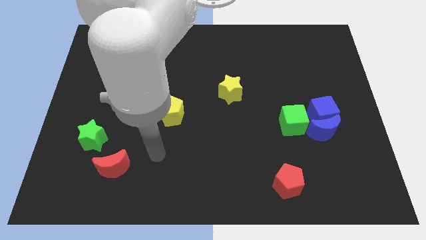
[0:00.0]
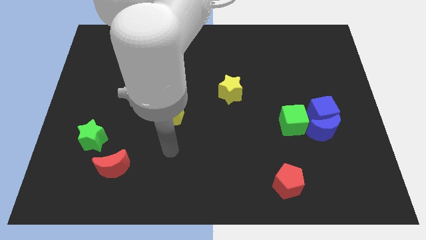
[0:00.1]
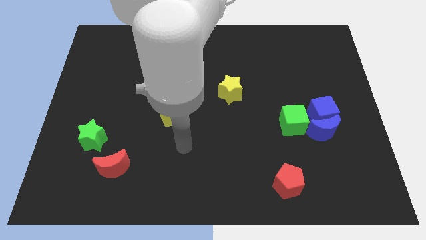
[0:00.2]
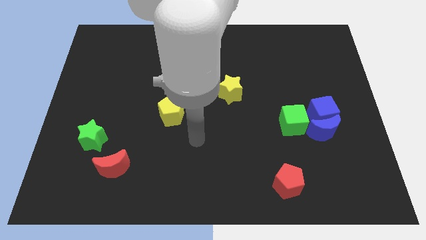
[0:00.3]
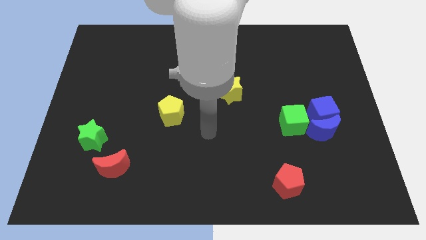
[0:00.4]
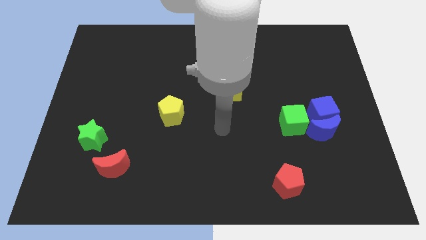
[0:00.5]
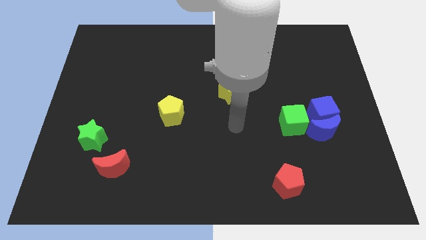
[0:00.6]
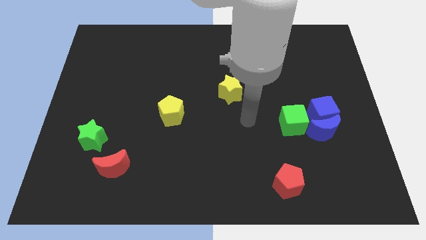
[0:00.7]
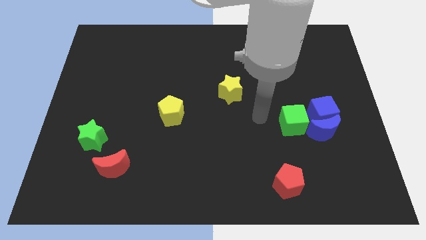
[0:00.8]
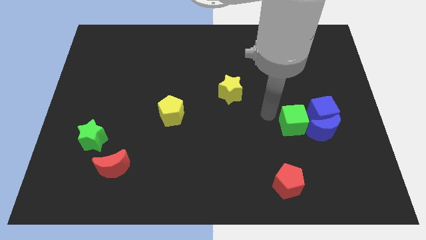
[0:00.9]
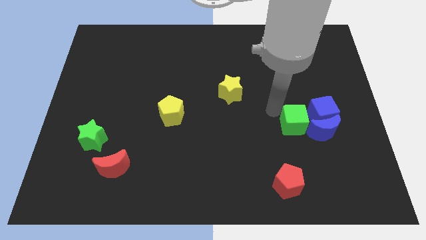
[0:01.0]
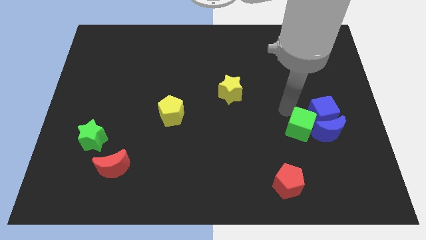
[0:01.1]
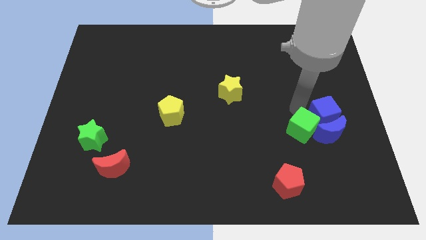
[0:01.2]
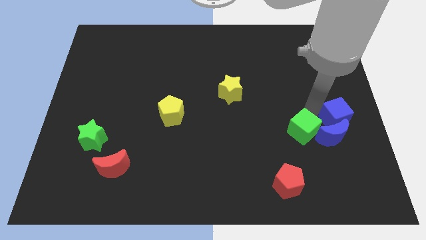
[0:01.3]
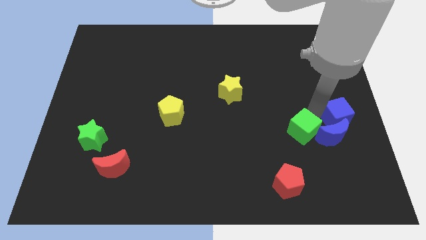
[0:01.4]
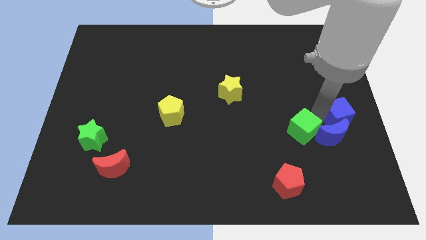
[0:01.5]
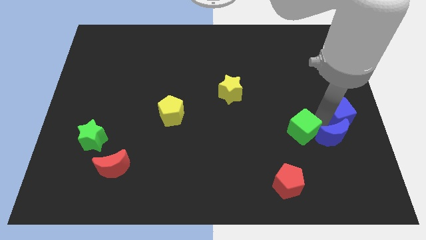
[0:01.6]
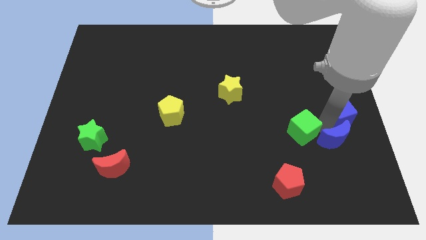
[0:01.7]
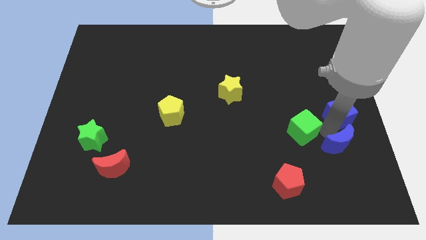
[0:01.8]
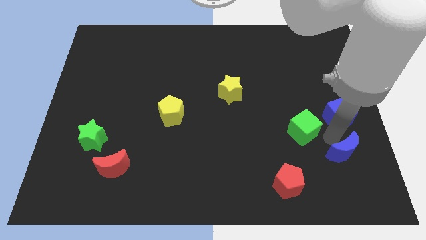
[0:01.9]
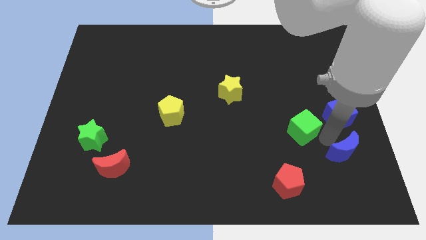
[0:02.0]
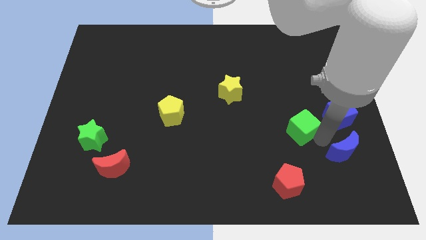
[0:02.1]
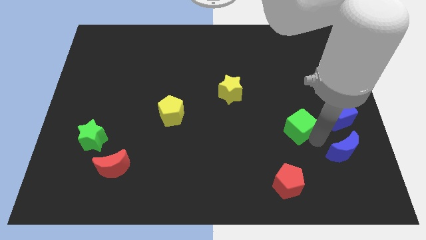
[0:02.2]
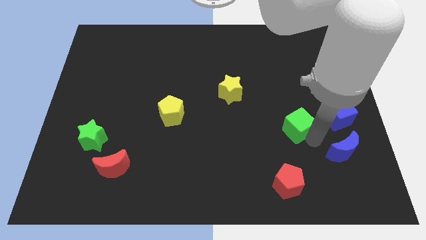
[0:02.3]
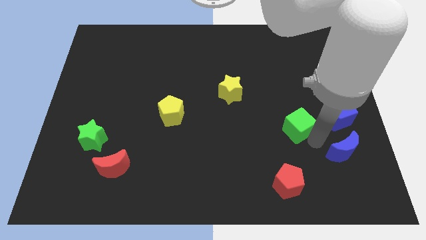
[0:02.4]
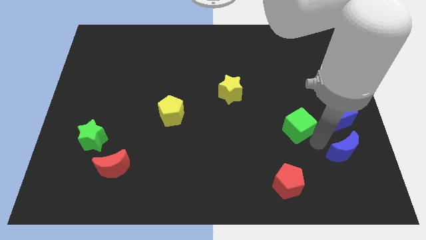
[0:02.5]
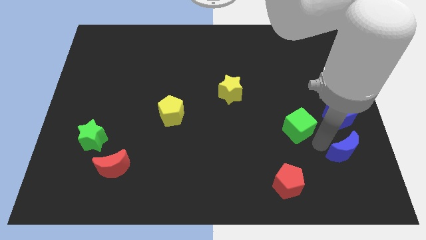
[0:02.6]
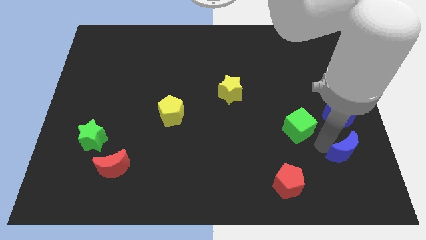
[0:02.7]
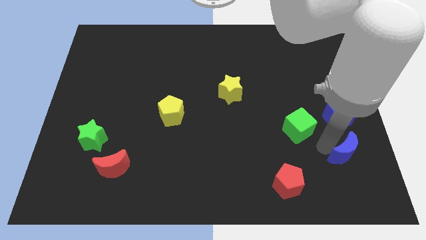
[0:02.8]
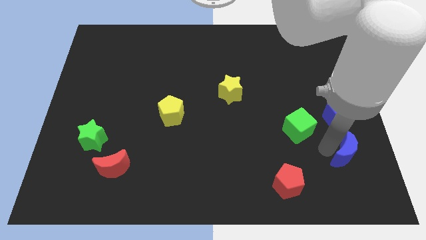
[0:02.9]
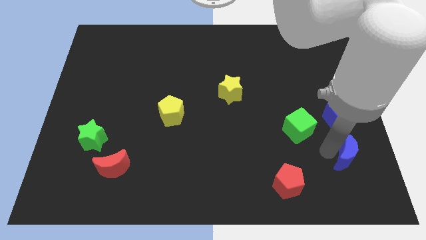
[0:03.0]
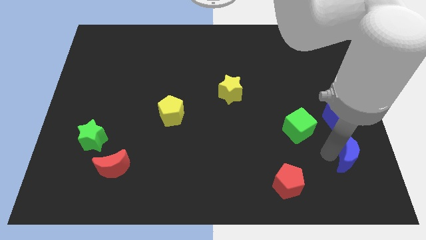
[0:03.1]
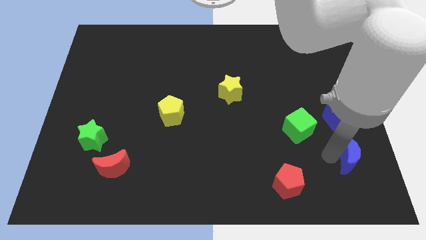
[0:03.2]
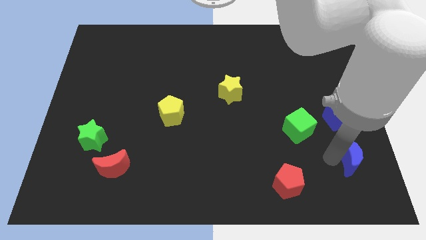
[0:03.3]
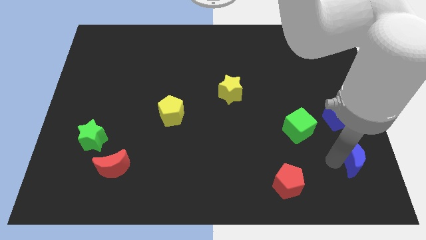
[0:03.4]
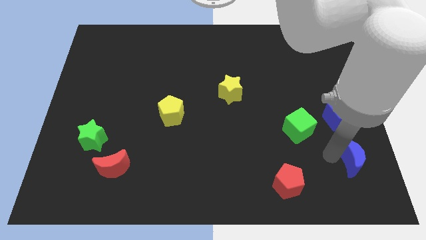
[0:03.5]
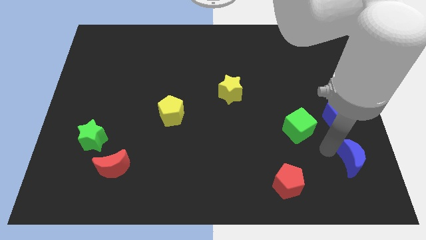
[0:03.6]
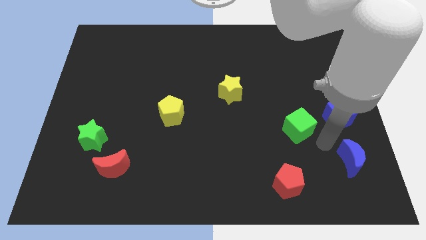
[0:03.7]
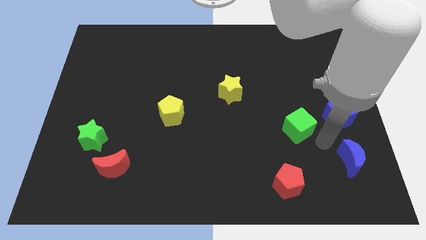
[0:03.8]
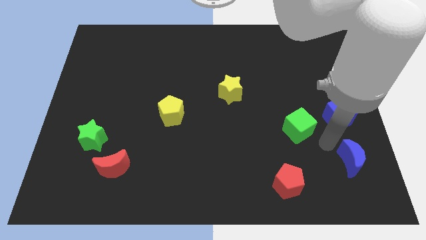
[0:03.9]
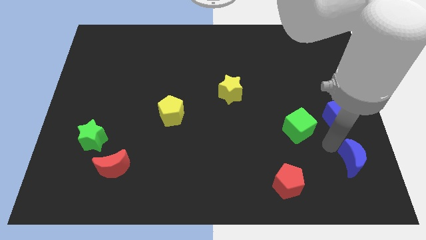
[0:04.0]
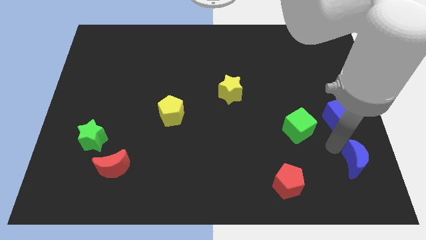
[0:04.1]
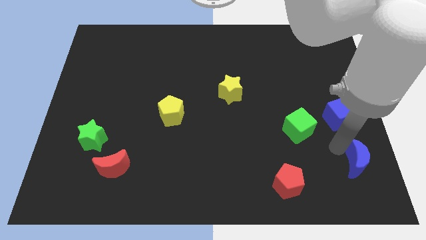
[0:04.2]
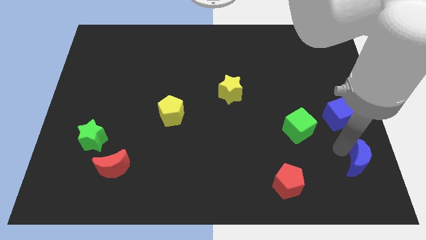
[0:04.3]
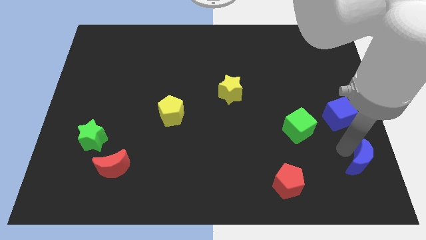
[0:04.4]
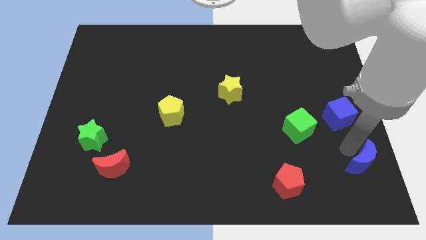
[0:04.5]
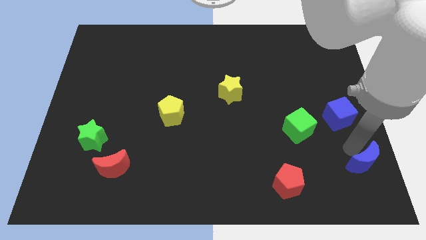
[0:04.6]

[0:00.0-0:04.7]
move the blue moon to the bottom right of the board

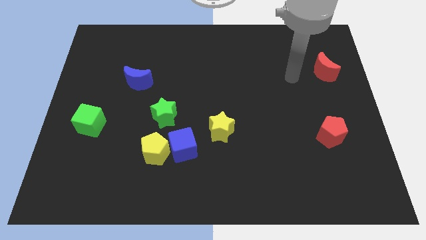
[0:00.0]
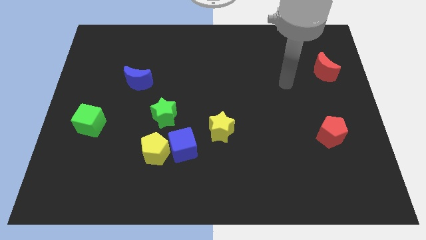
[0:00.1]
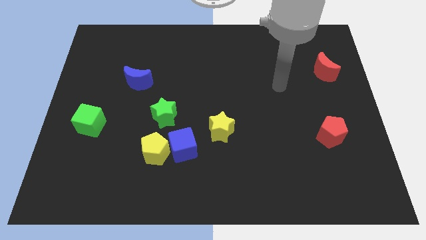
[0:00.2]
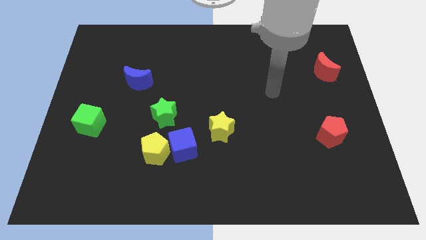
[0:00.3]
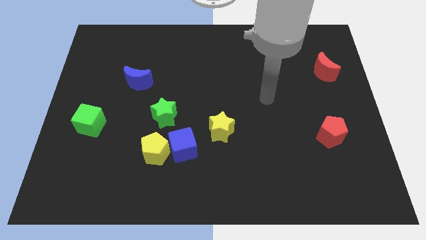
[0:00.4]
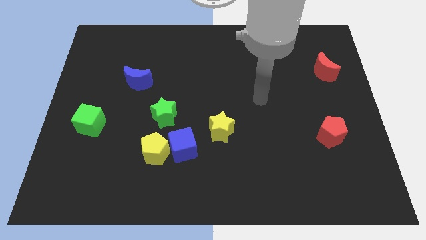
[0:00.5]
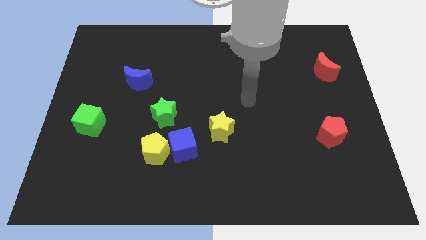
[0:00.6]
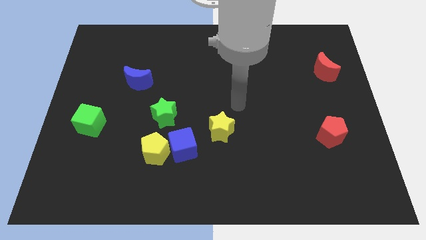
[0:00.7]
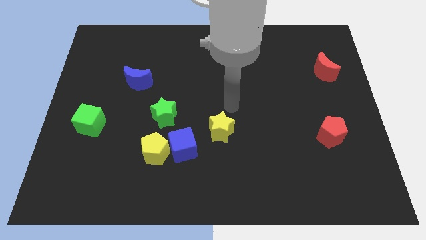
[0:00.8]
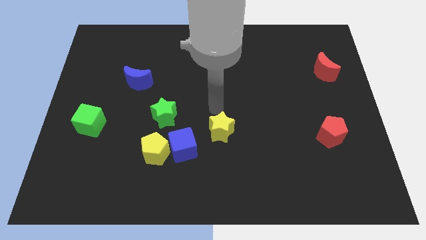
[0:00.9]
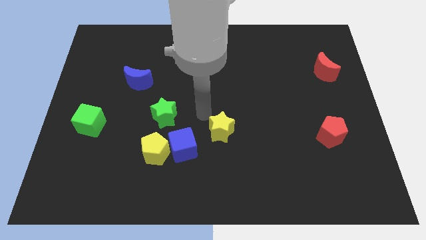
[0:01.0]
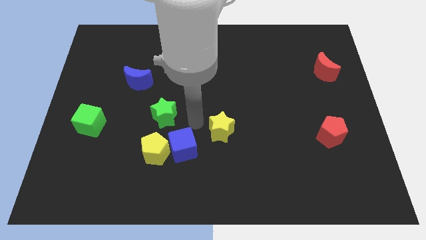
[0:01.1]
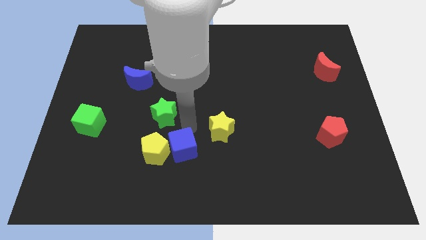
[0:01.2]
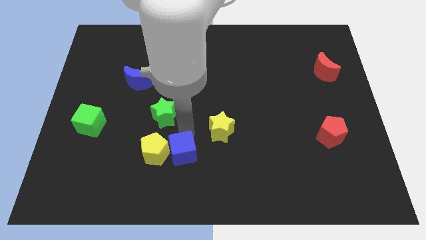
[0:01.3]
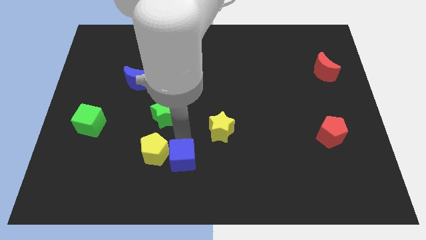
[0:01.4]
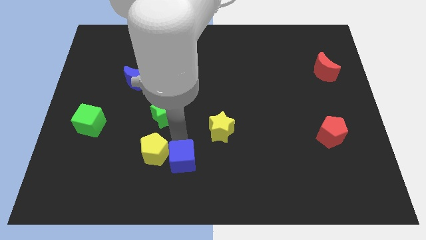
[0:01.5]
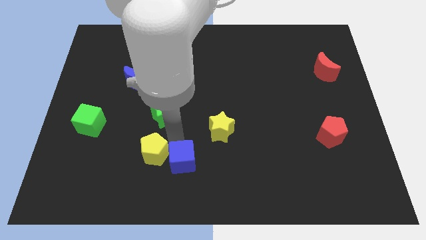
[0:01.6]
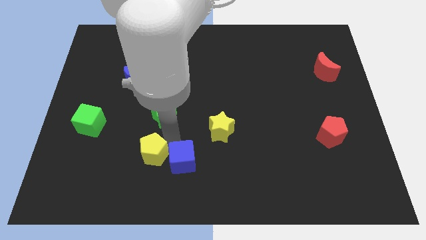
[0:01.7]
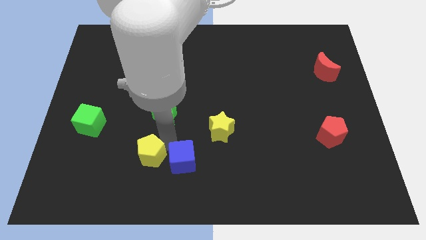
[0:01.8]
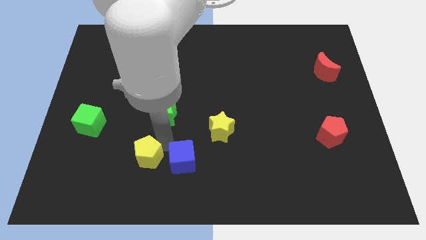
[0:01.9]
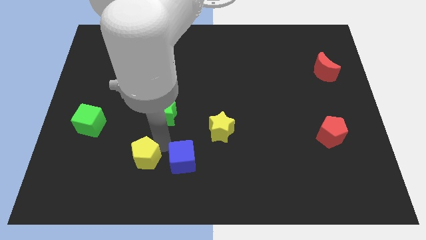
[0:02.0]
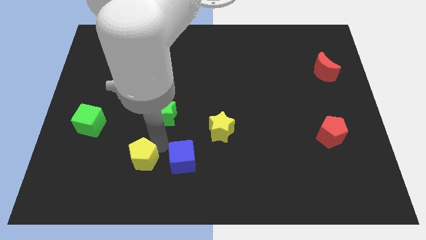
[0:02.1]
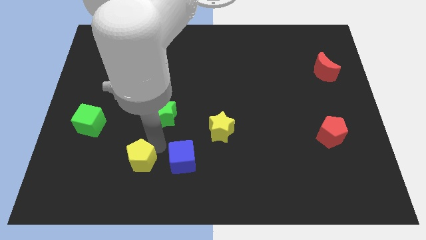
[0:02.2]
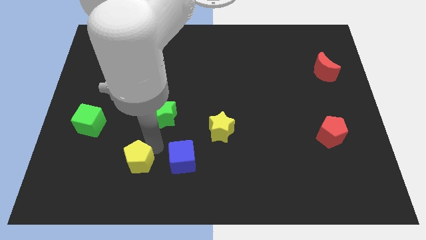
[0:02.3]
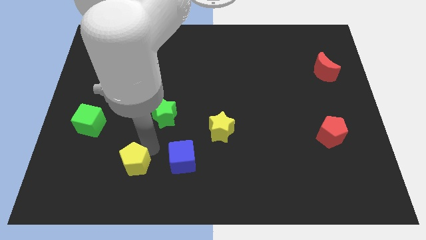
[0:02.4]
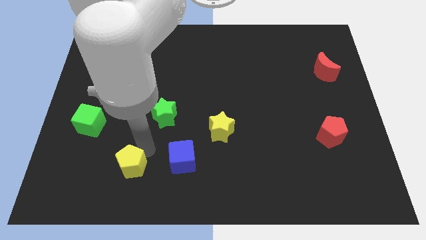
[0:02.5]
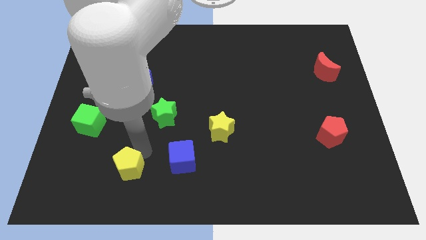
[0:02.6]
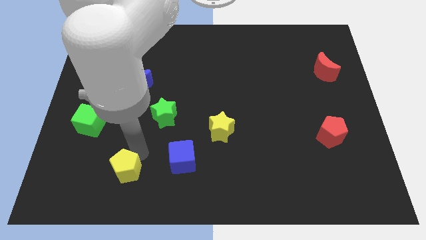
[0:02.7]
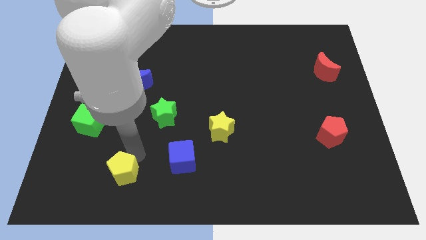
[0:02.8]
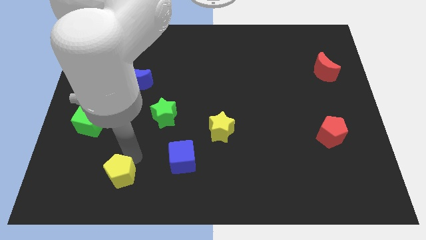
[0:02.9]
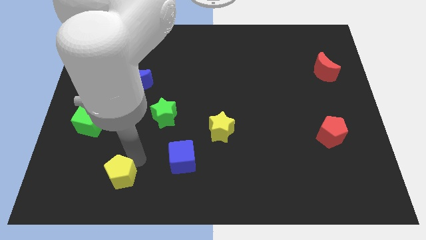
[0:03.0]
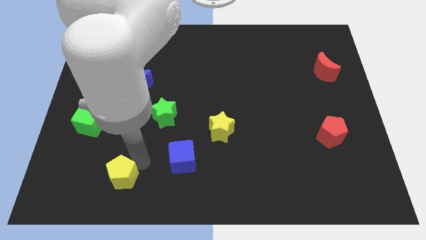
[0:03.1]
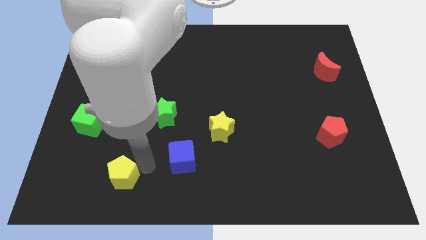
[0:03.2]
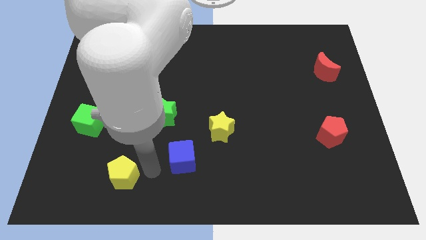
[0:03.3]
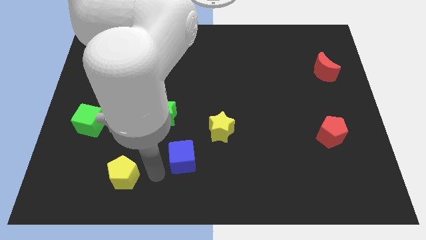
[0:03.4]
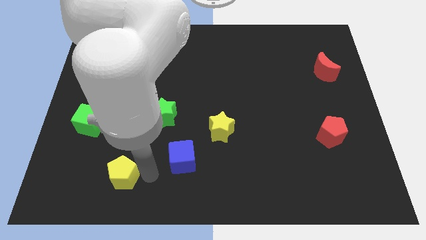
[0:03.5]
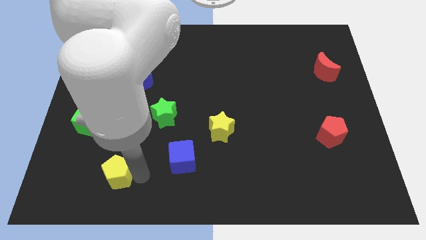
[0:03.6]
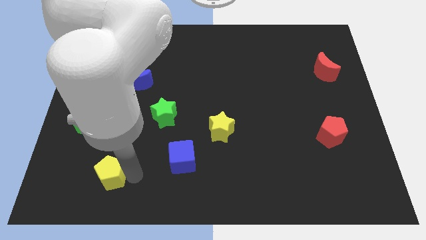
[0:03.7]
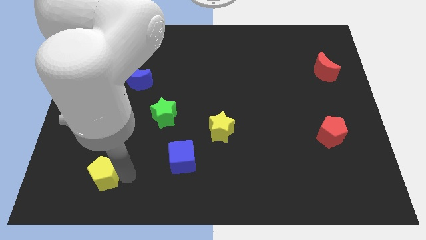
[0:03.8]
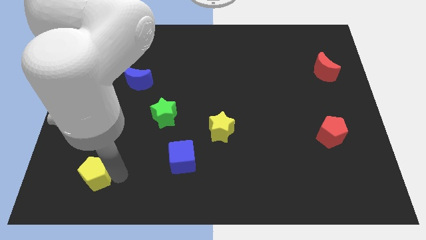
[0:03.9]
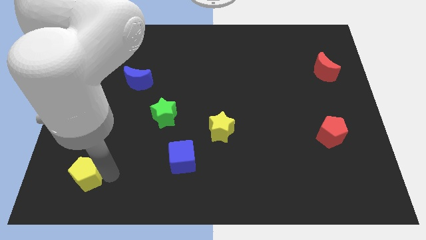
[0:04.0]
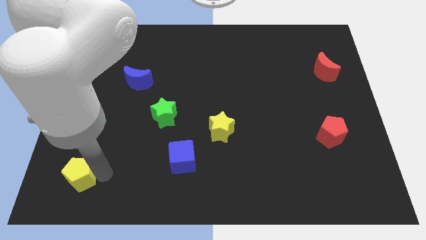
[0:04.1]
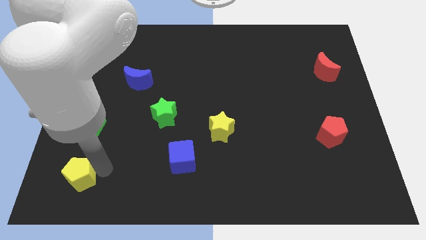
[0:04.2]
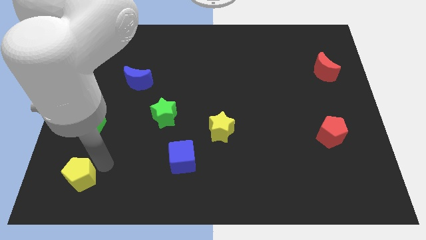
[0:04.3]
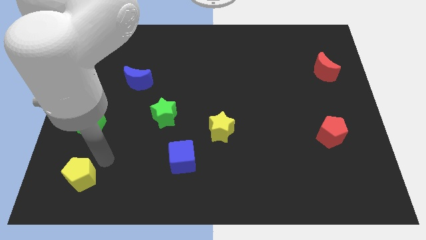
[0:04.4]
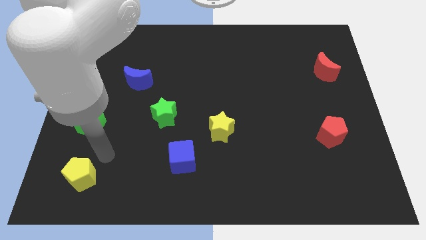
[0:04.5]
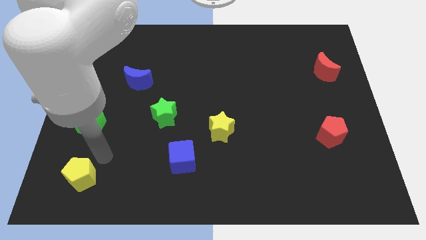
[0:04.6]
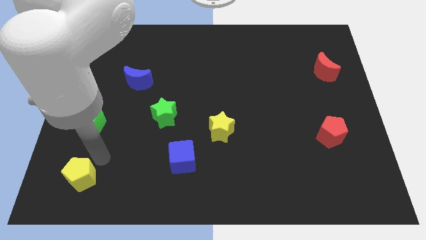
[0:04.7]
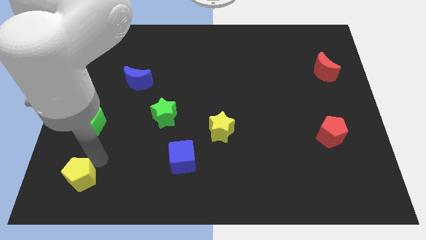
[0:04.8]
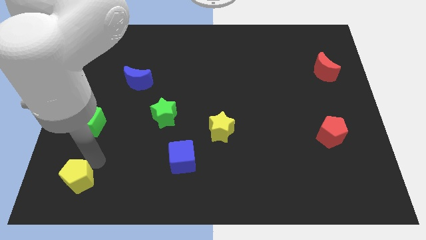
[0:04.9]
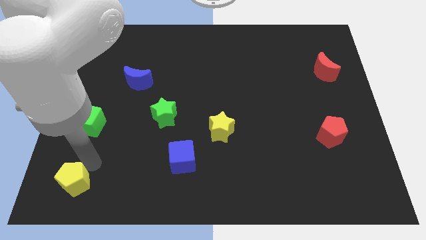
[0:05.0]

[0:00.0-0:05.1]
move the yellow pentagon to the lower left corner
